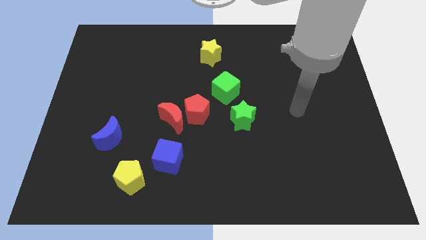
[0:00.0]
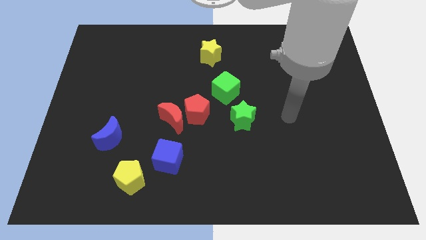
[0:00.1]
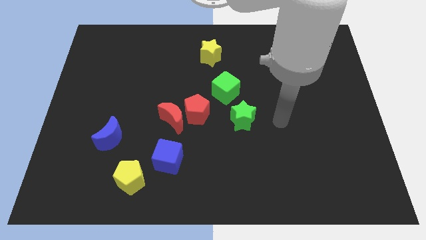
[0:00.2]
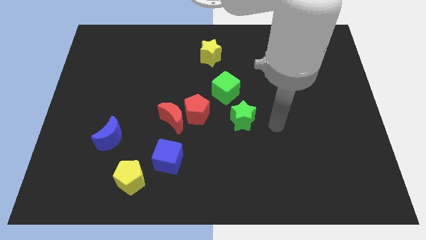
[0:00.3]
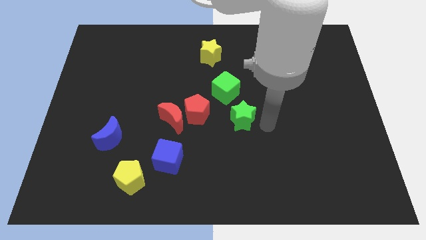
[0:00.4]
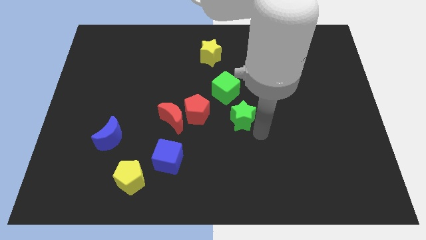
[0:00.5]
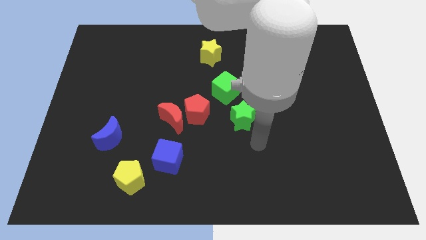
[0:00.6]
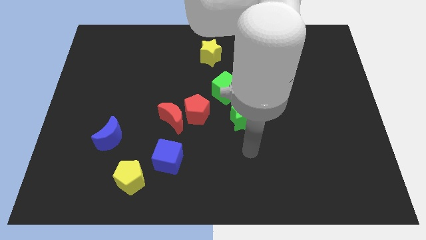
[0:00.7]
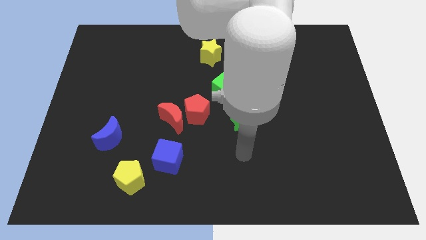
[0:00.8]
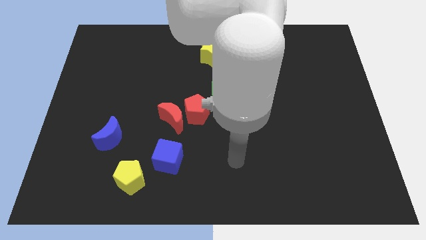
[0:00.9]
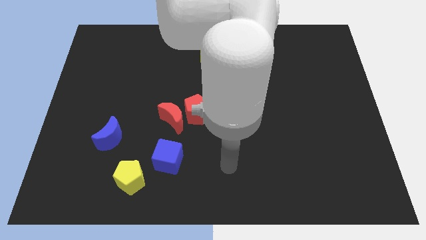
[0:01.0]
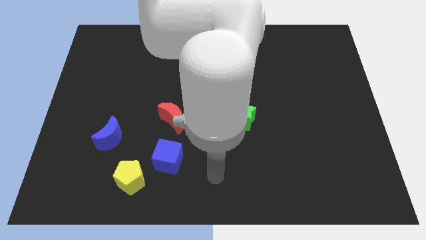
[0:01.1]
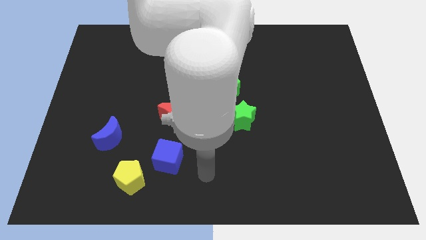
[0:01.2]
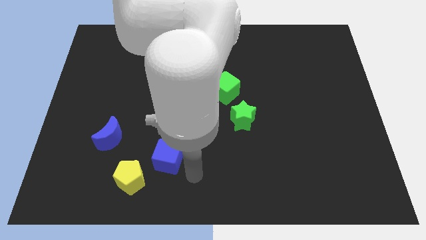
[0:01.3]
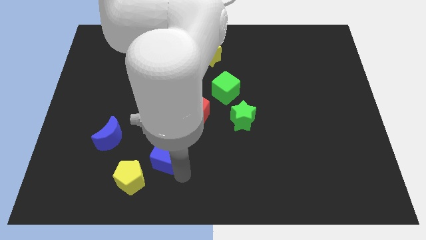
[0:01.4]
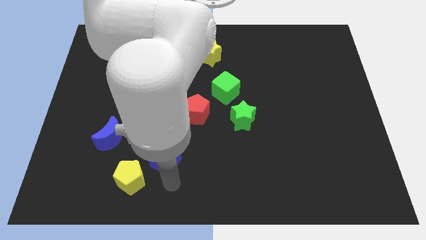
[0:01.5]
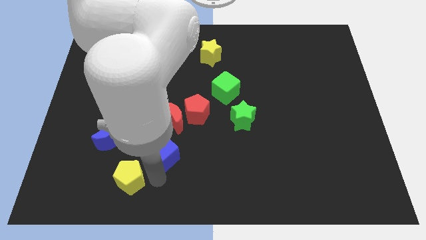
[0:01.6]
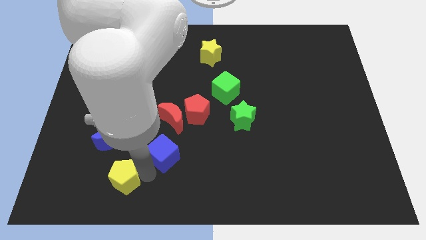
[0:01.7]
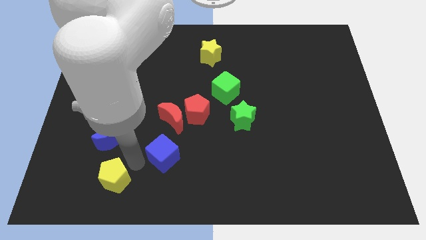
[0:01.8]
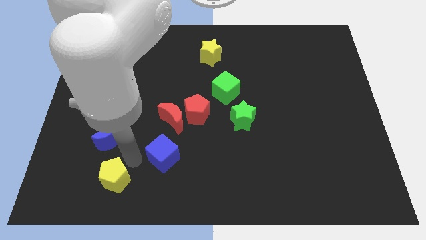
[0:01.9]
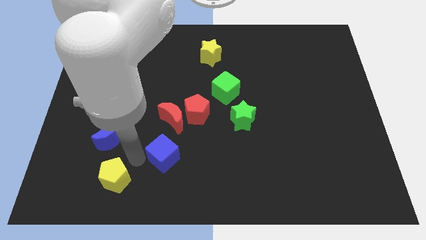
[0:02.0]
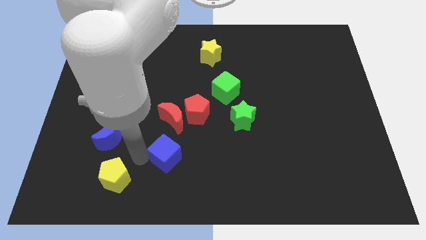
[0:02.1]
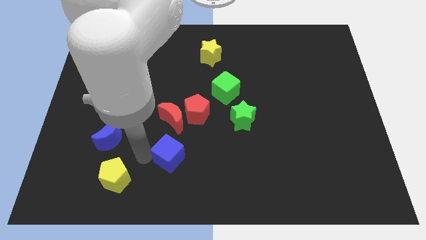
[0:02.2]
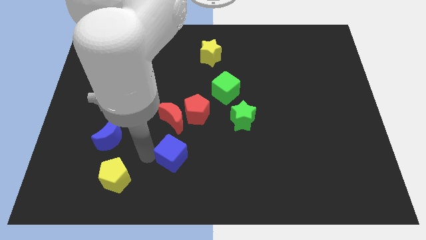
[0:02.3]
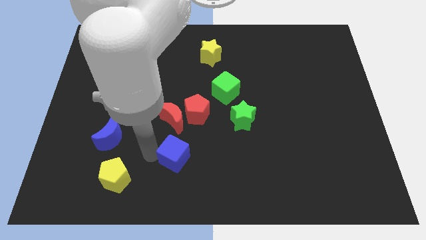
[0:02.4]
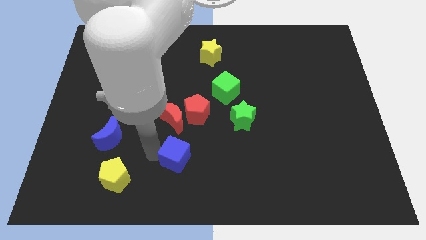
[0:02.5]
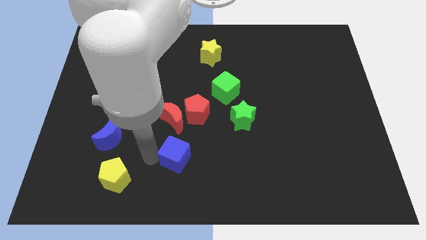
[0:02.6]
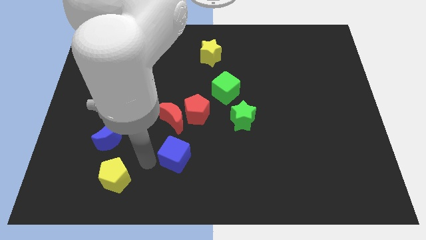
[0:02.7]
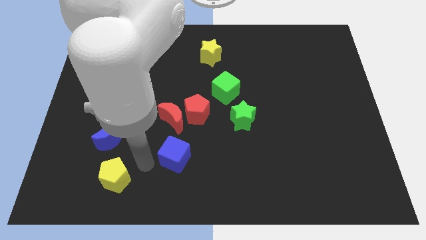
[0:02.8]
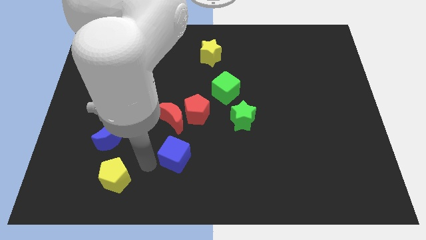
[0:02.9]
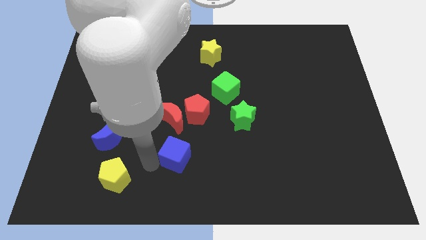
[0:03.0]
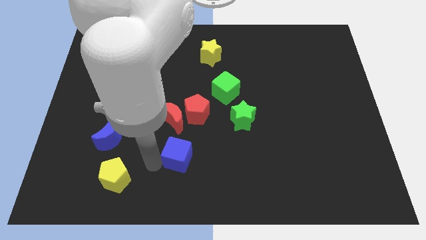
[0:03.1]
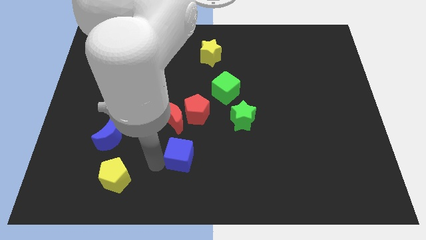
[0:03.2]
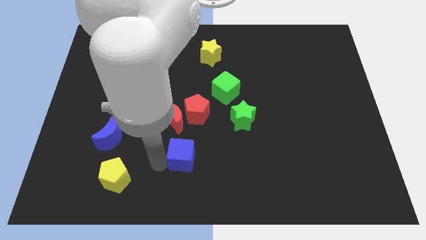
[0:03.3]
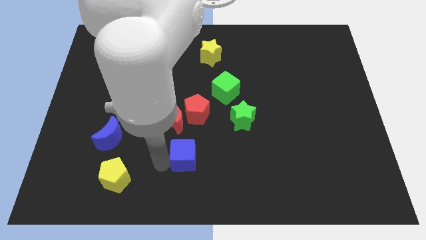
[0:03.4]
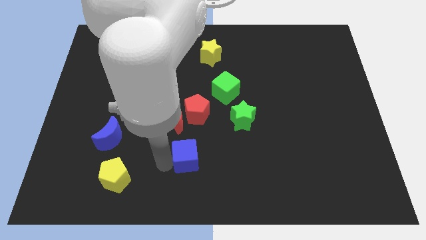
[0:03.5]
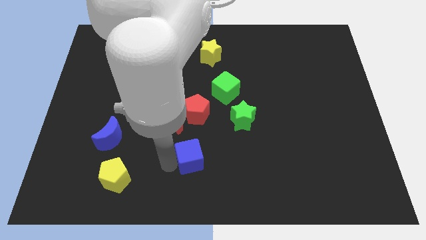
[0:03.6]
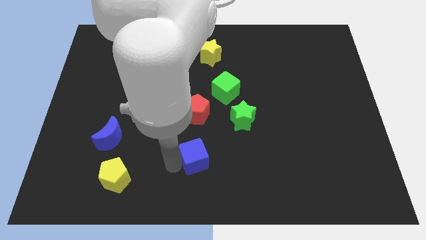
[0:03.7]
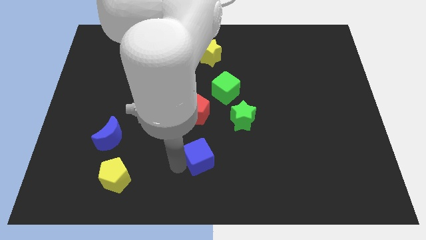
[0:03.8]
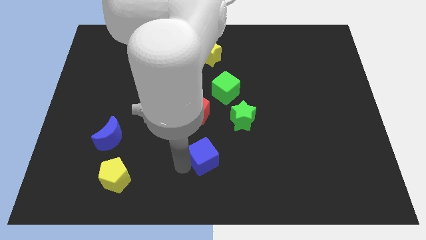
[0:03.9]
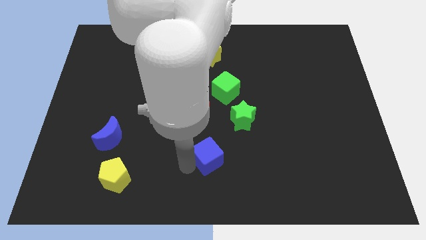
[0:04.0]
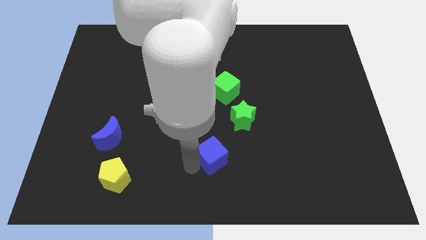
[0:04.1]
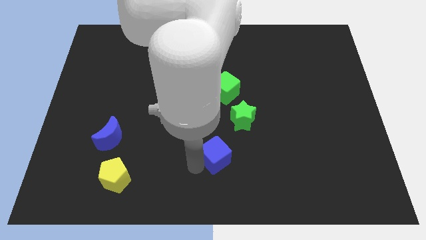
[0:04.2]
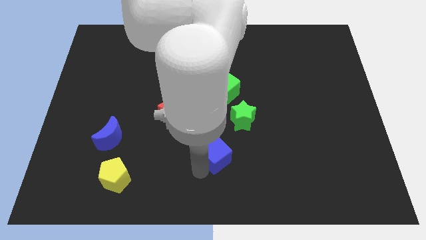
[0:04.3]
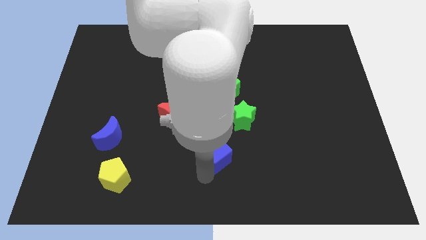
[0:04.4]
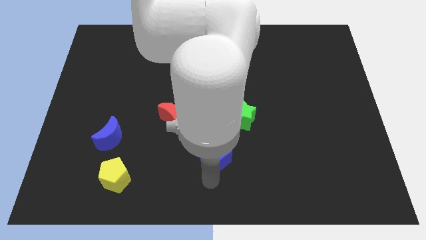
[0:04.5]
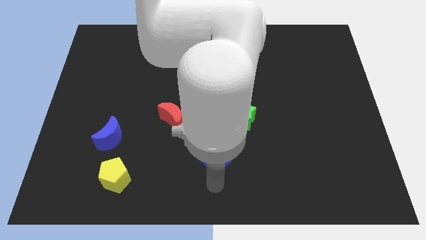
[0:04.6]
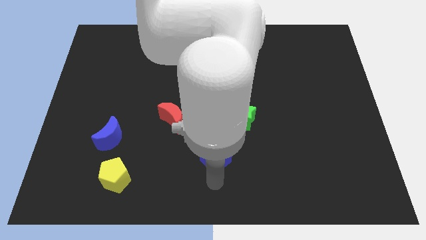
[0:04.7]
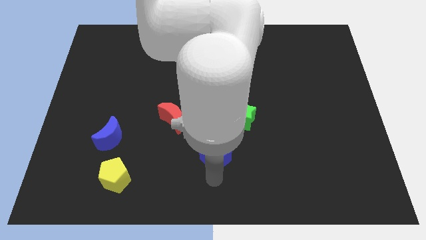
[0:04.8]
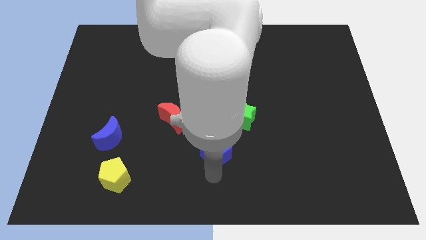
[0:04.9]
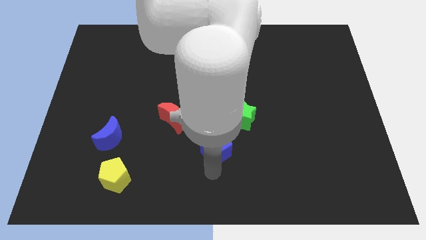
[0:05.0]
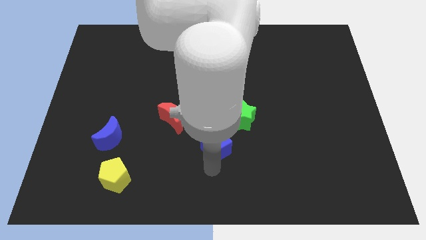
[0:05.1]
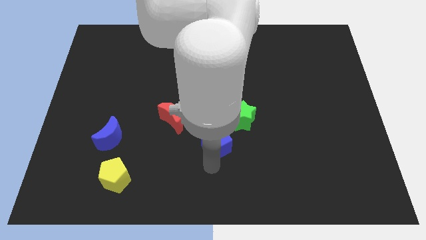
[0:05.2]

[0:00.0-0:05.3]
move the blue cube to the middle

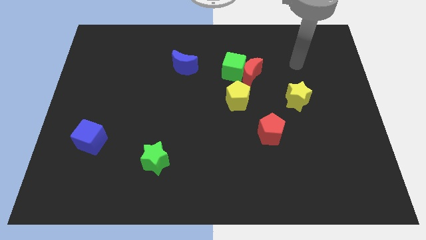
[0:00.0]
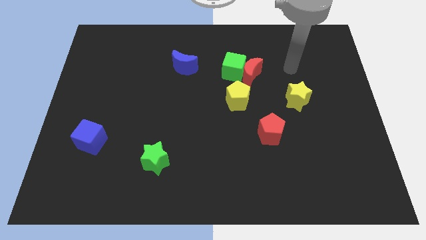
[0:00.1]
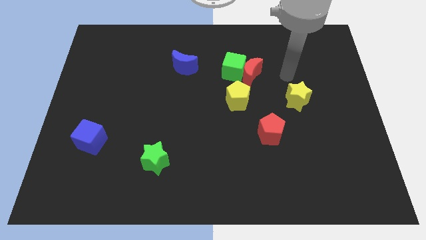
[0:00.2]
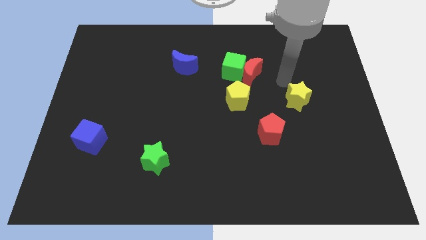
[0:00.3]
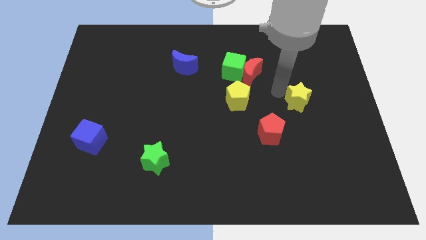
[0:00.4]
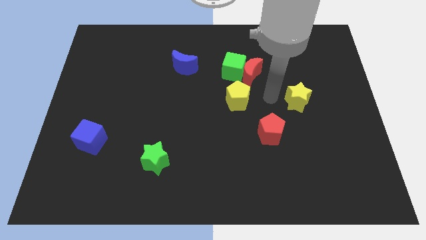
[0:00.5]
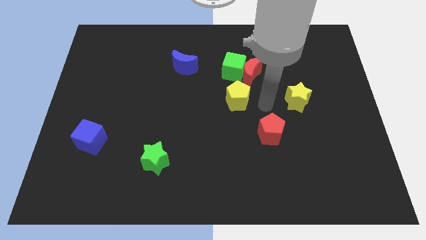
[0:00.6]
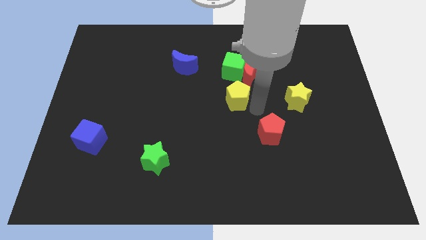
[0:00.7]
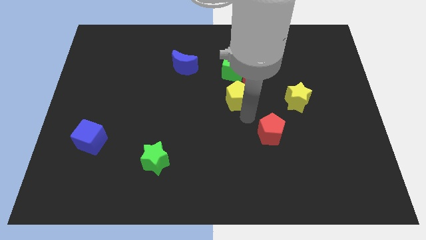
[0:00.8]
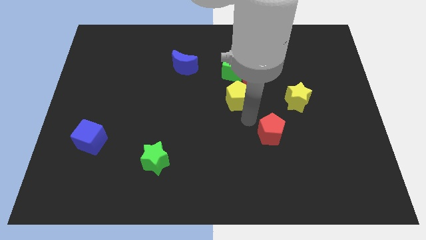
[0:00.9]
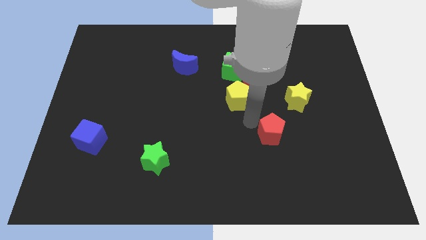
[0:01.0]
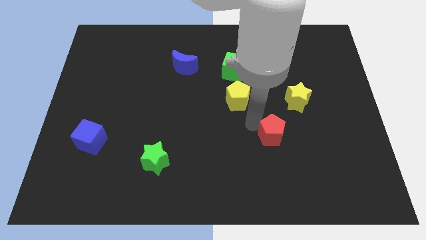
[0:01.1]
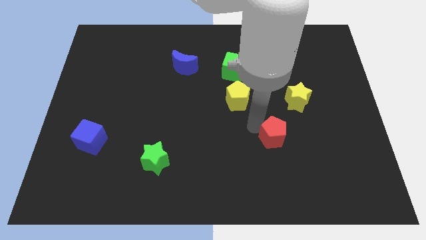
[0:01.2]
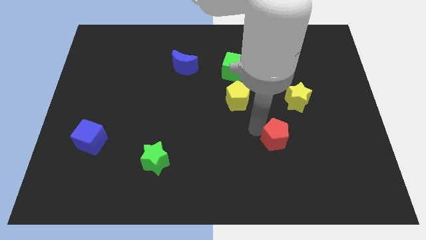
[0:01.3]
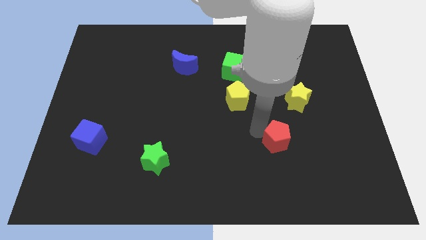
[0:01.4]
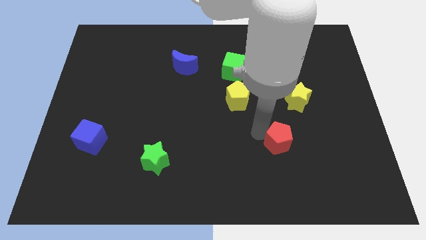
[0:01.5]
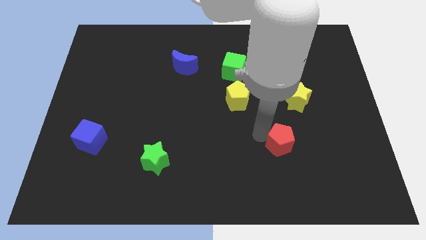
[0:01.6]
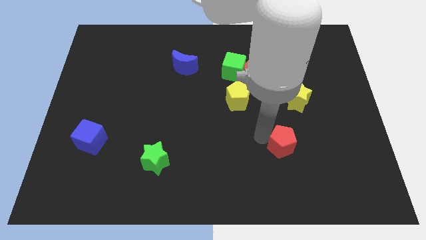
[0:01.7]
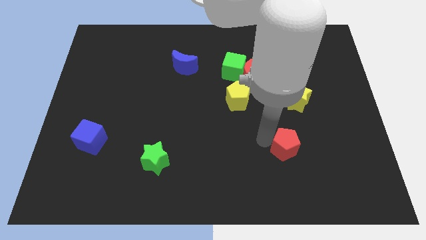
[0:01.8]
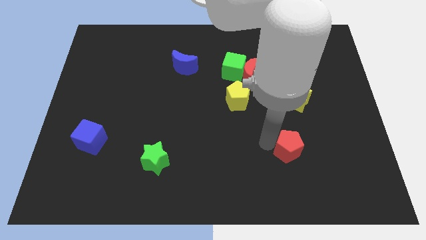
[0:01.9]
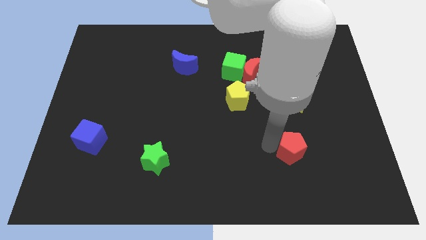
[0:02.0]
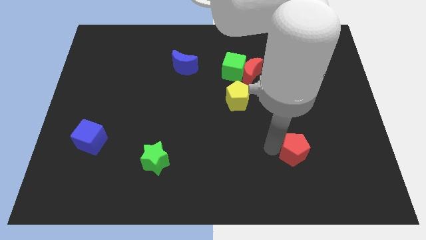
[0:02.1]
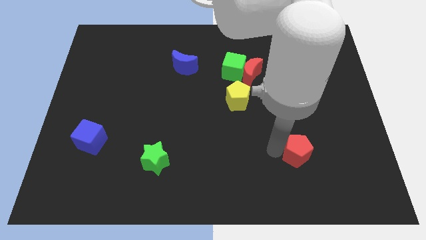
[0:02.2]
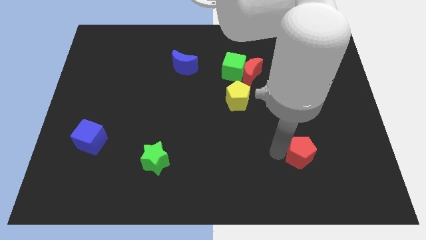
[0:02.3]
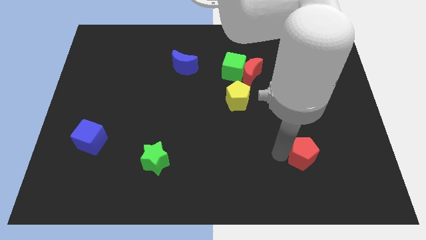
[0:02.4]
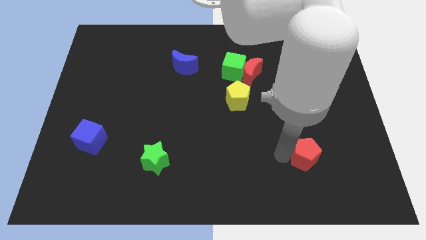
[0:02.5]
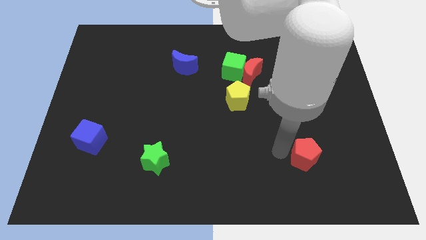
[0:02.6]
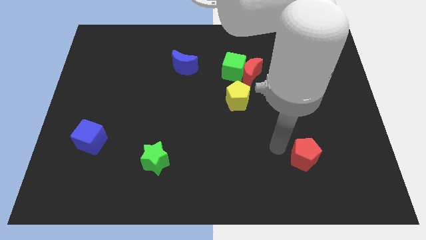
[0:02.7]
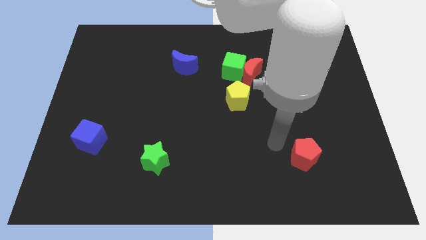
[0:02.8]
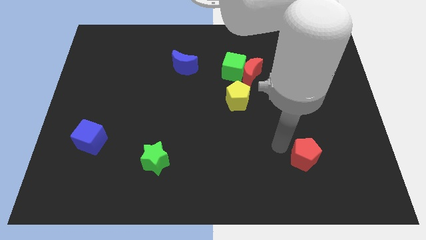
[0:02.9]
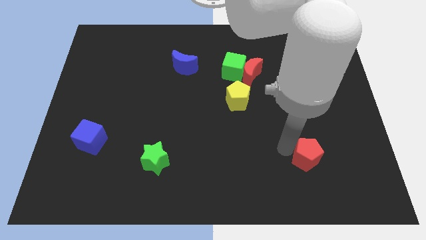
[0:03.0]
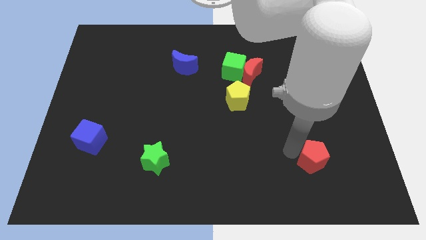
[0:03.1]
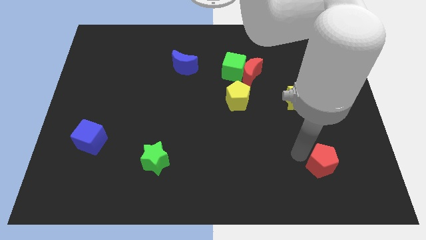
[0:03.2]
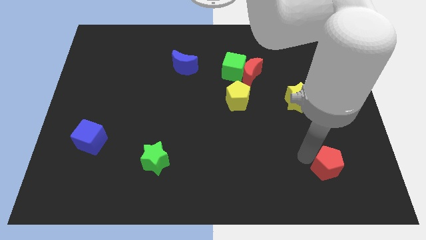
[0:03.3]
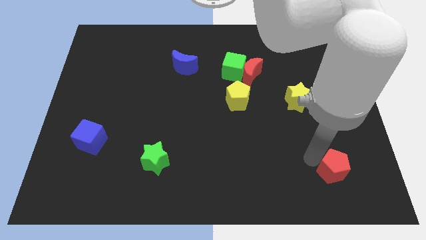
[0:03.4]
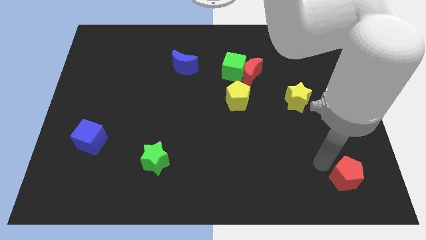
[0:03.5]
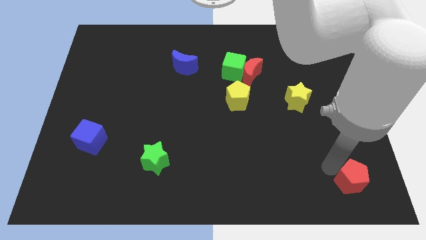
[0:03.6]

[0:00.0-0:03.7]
put the red pentagon to the lower right corner
